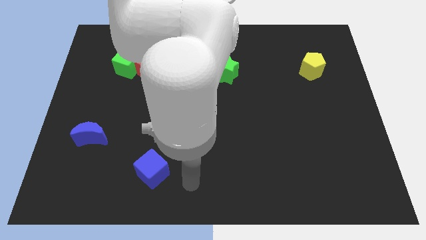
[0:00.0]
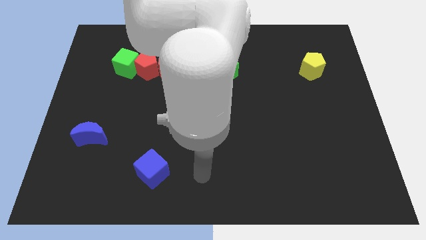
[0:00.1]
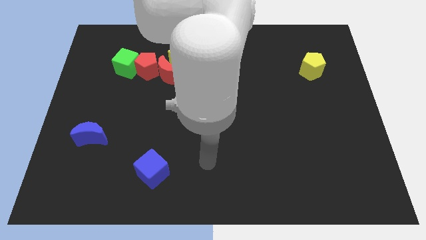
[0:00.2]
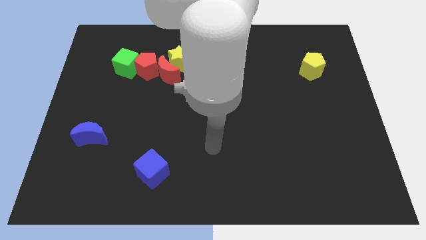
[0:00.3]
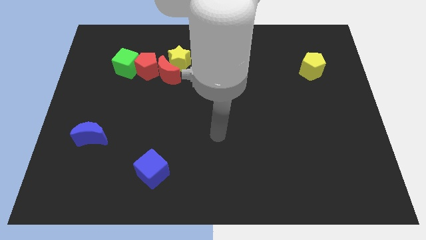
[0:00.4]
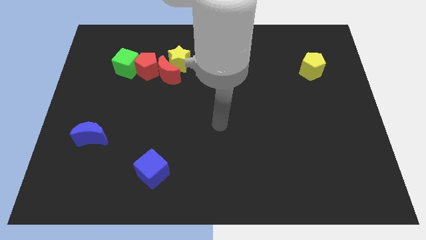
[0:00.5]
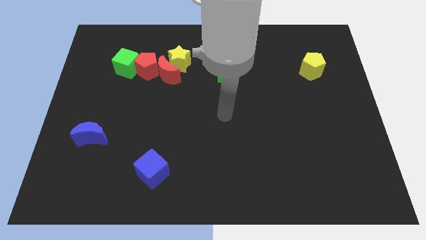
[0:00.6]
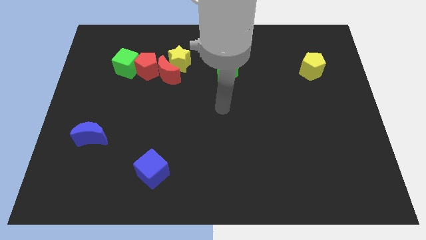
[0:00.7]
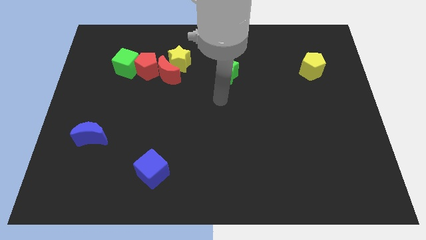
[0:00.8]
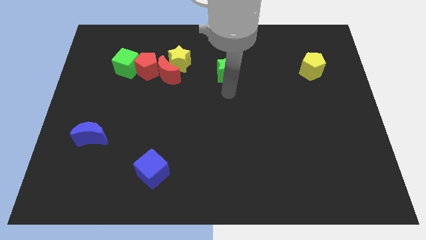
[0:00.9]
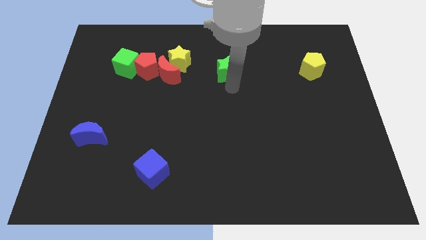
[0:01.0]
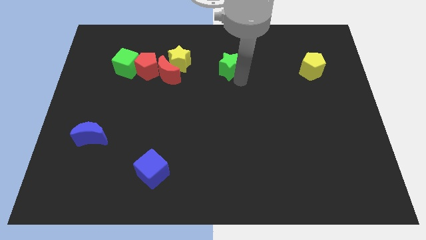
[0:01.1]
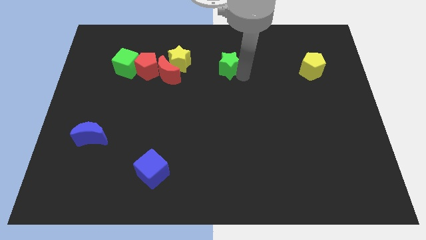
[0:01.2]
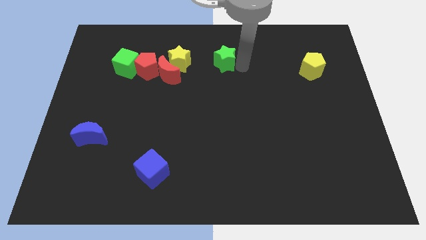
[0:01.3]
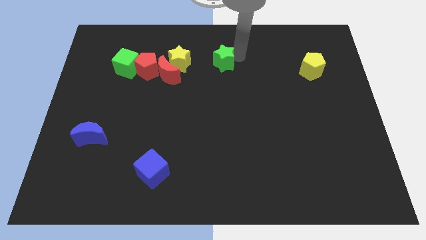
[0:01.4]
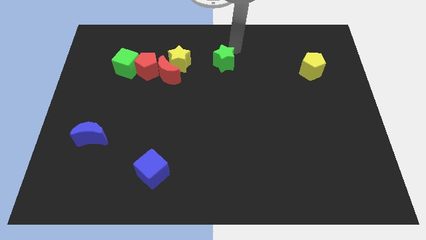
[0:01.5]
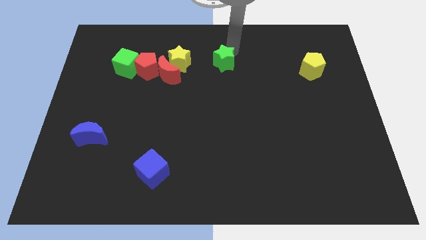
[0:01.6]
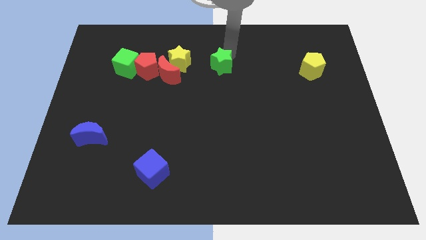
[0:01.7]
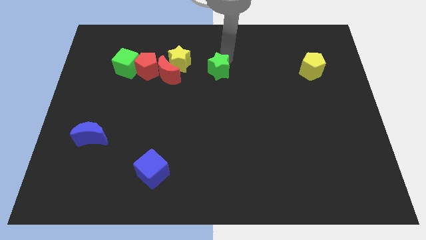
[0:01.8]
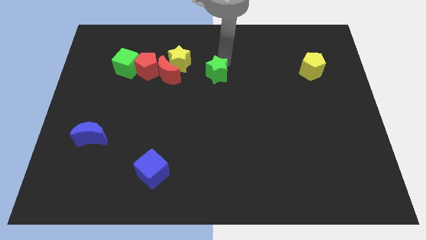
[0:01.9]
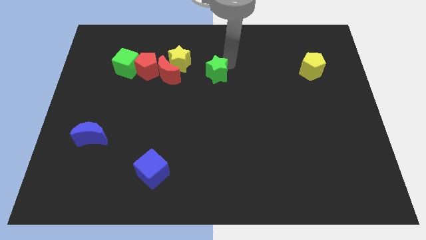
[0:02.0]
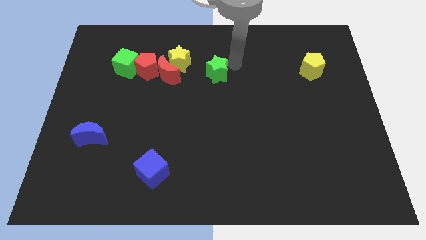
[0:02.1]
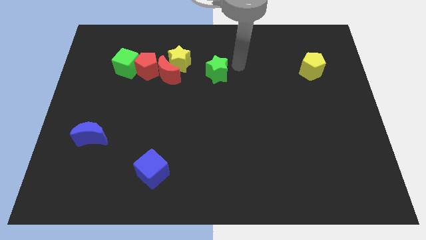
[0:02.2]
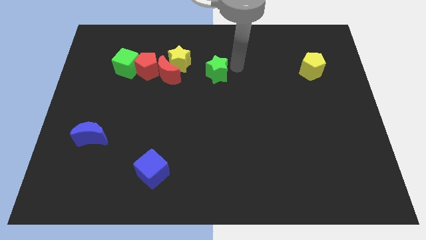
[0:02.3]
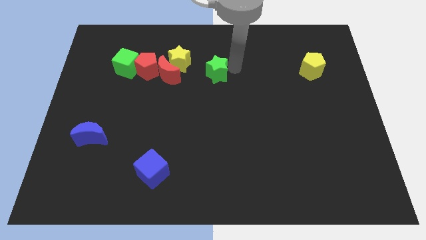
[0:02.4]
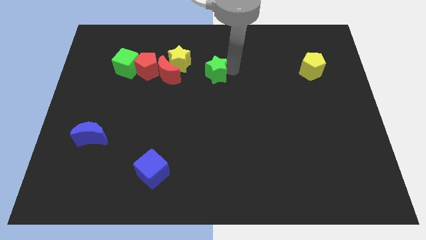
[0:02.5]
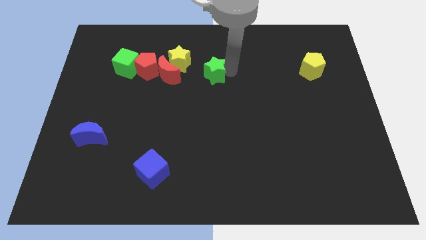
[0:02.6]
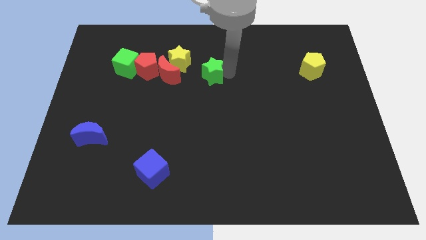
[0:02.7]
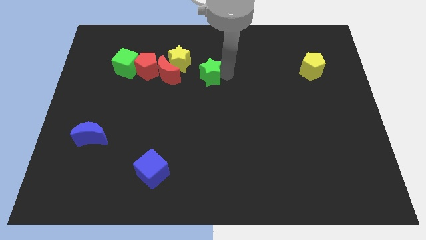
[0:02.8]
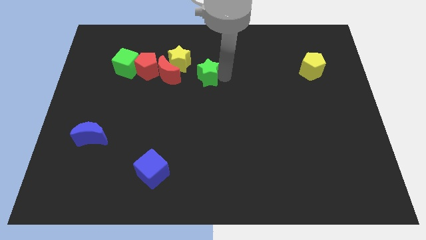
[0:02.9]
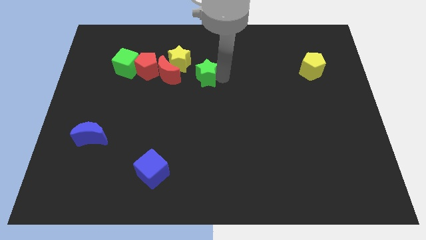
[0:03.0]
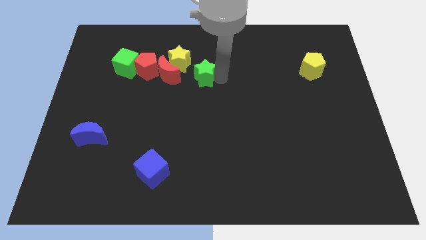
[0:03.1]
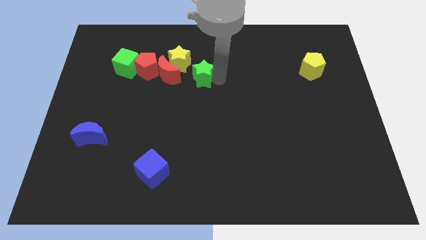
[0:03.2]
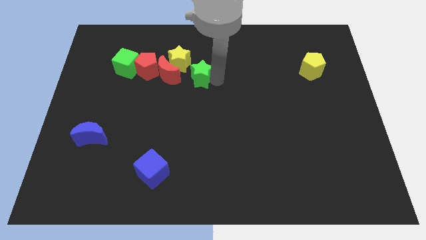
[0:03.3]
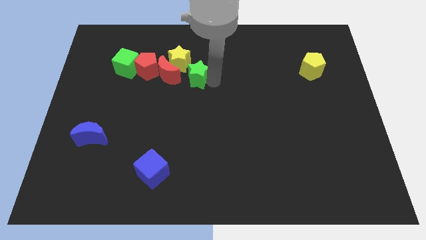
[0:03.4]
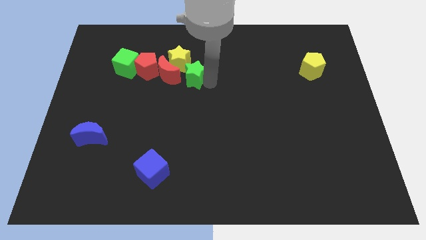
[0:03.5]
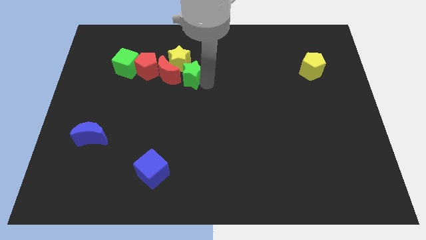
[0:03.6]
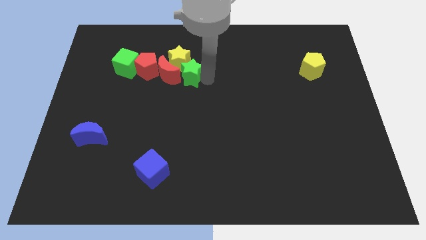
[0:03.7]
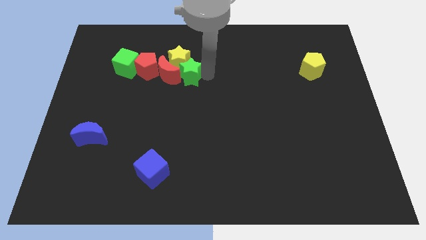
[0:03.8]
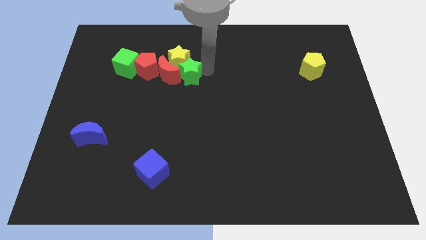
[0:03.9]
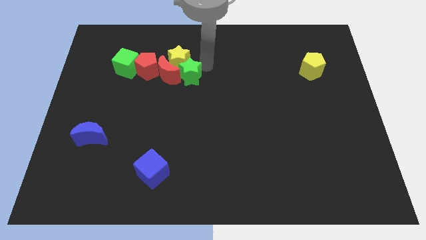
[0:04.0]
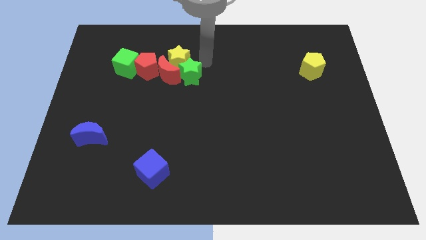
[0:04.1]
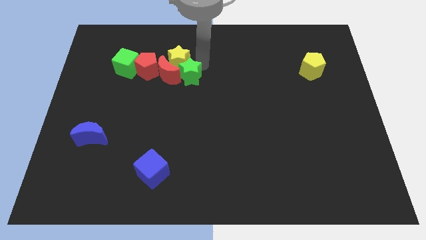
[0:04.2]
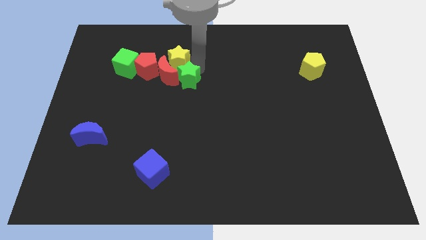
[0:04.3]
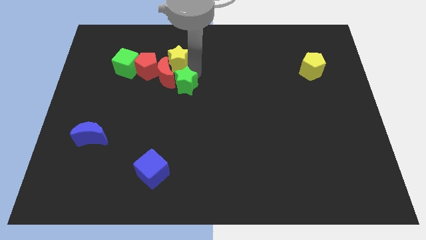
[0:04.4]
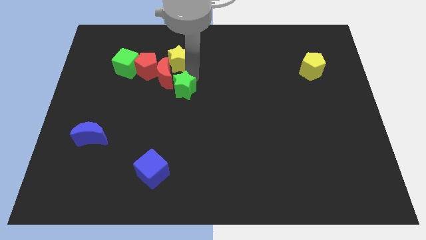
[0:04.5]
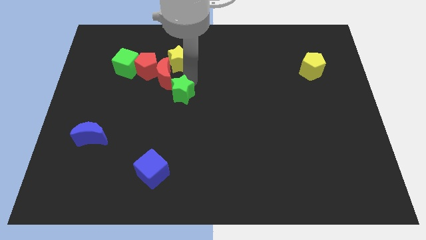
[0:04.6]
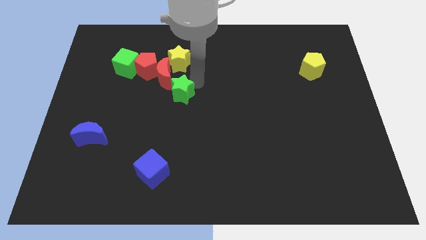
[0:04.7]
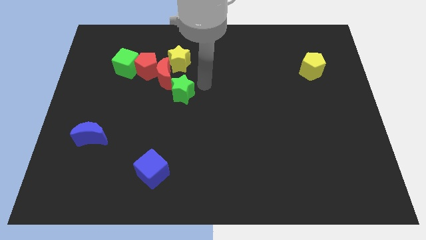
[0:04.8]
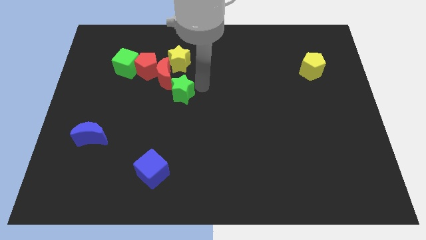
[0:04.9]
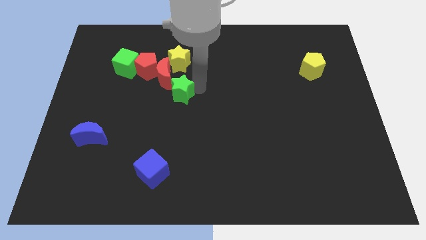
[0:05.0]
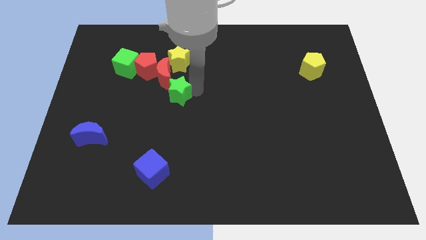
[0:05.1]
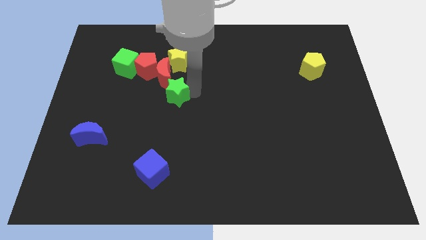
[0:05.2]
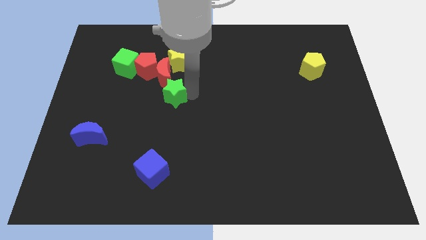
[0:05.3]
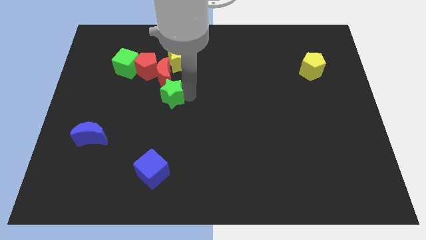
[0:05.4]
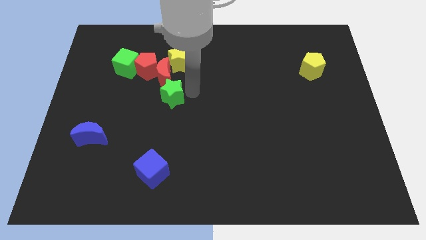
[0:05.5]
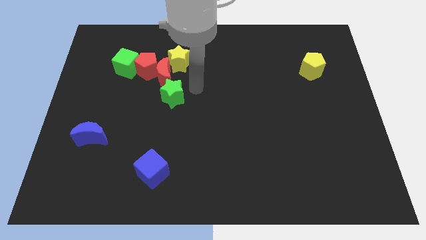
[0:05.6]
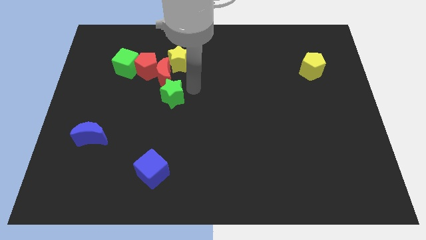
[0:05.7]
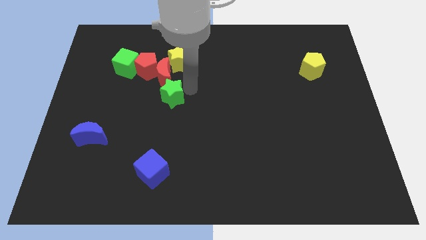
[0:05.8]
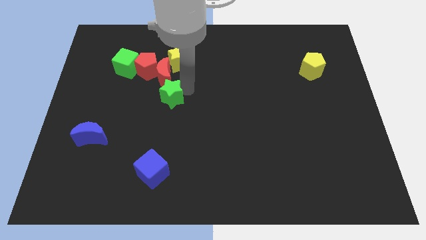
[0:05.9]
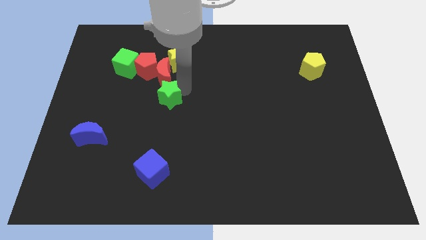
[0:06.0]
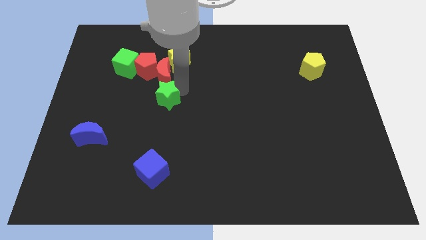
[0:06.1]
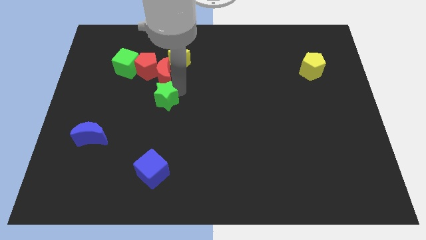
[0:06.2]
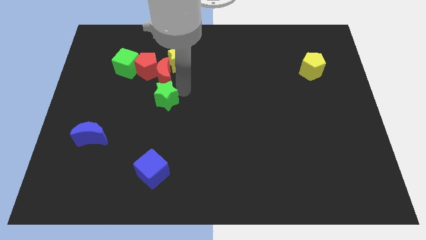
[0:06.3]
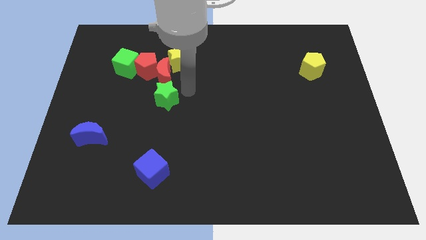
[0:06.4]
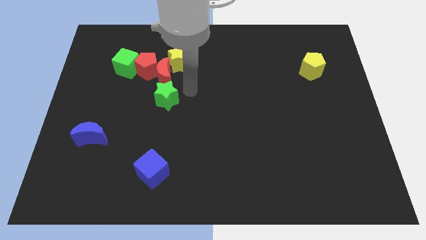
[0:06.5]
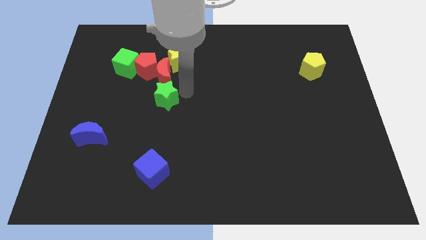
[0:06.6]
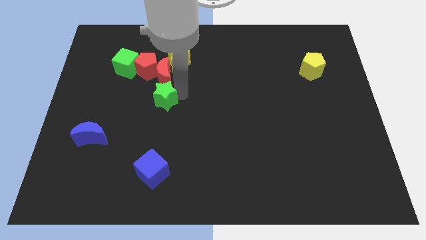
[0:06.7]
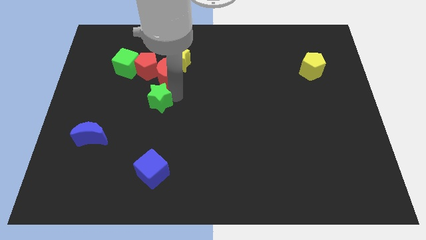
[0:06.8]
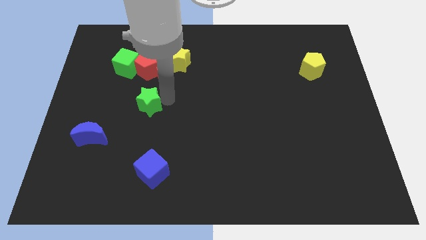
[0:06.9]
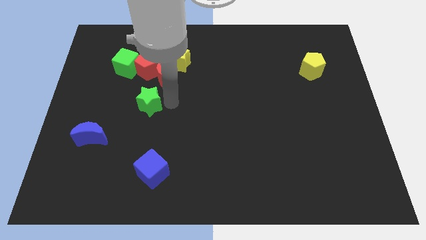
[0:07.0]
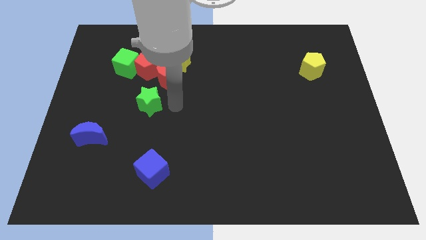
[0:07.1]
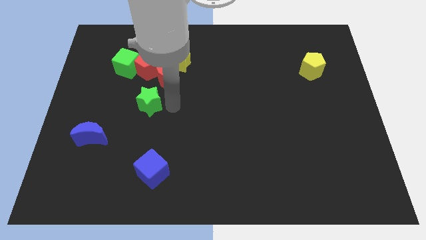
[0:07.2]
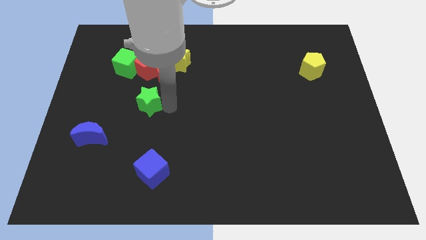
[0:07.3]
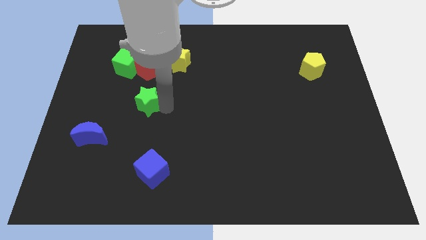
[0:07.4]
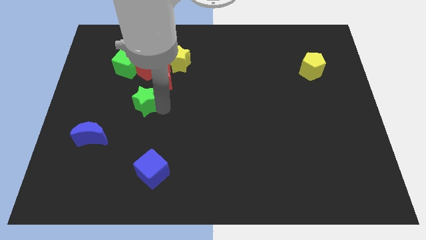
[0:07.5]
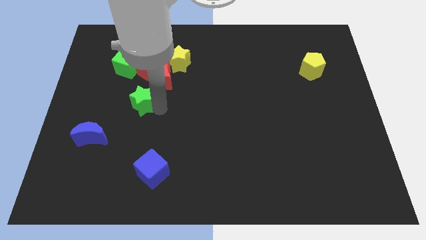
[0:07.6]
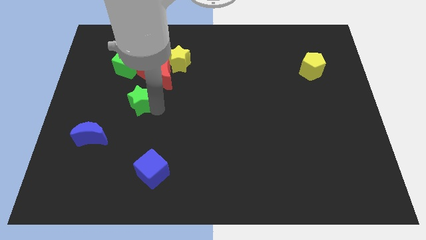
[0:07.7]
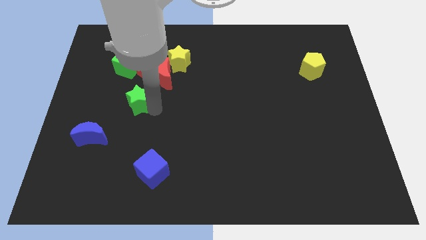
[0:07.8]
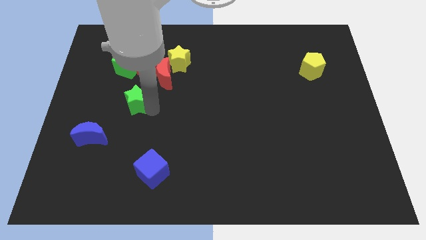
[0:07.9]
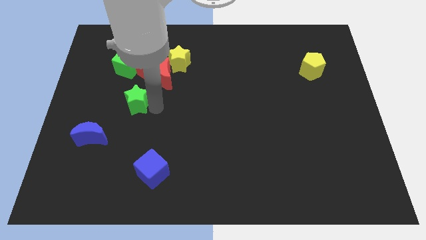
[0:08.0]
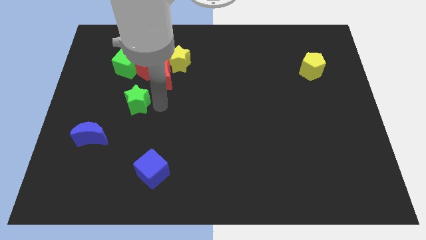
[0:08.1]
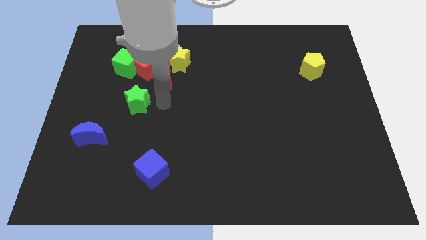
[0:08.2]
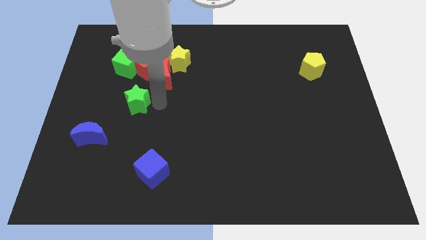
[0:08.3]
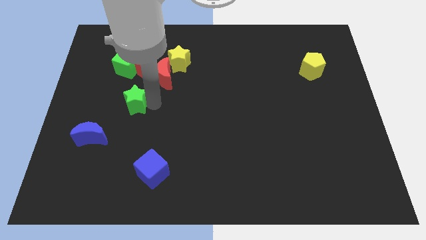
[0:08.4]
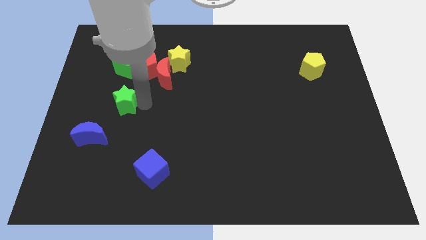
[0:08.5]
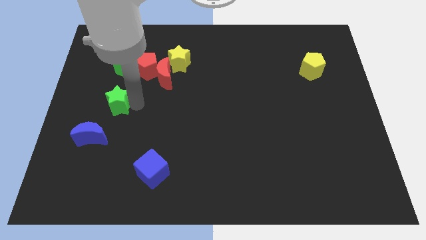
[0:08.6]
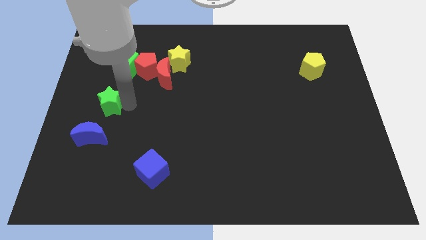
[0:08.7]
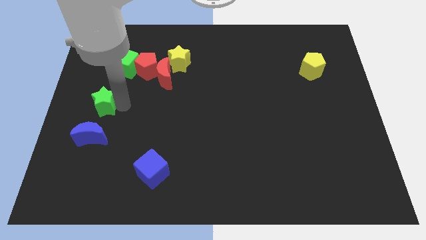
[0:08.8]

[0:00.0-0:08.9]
put the green star to the center left
